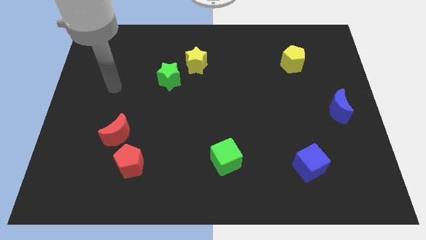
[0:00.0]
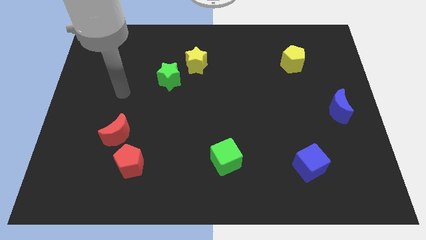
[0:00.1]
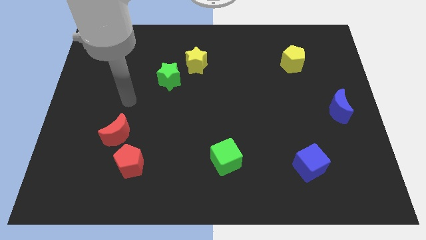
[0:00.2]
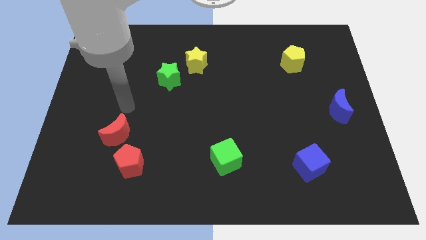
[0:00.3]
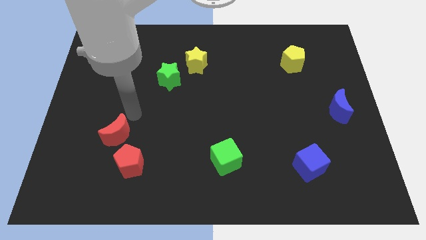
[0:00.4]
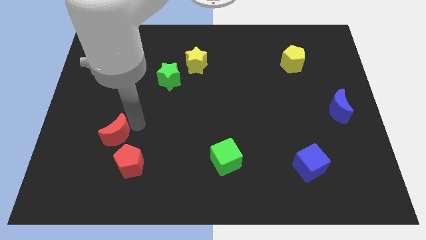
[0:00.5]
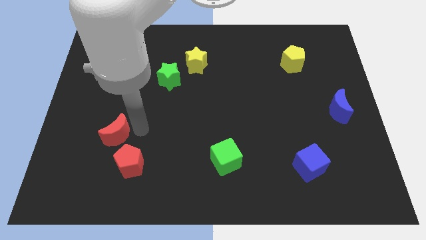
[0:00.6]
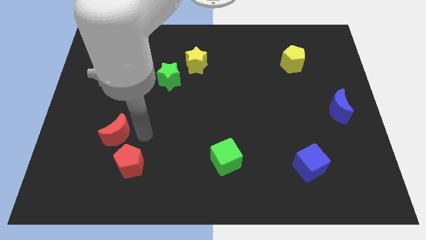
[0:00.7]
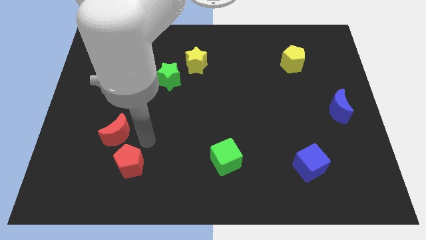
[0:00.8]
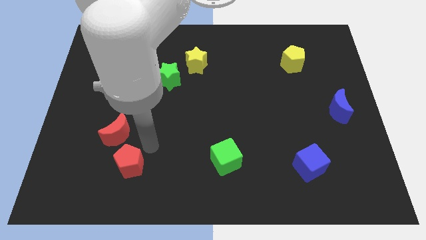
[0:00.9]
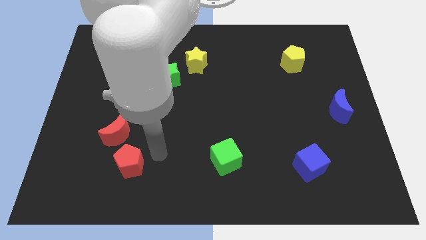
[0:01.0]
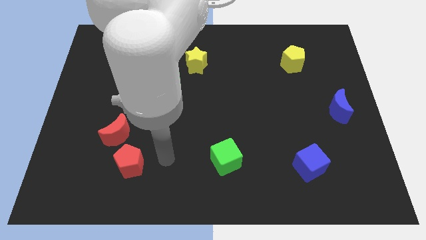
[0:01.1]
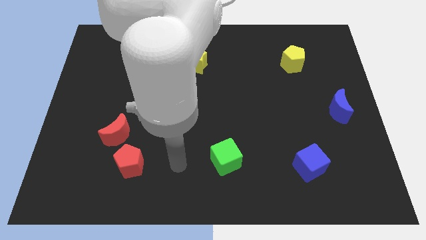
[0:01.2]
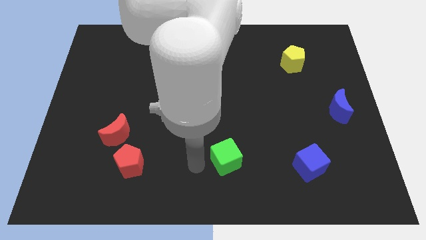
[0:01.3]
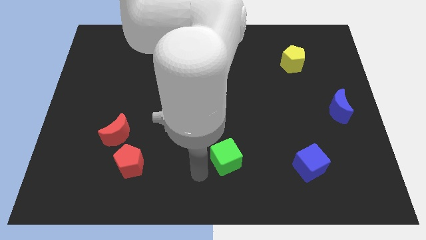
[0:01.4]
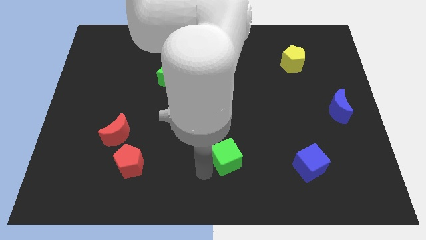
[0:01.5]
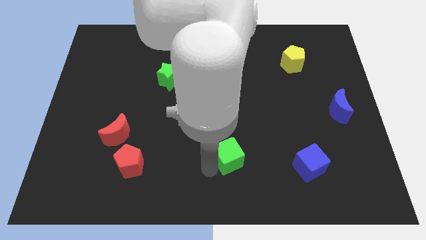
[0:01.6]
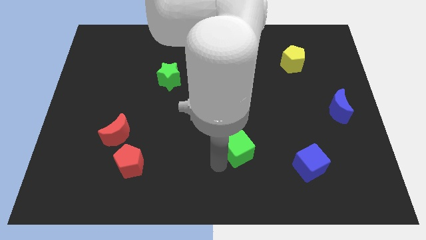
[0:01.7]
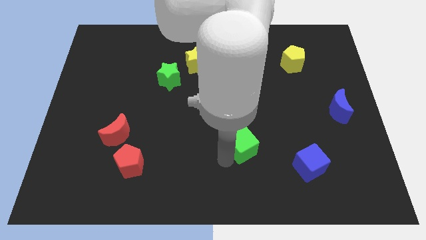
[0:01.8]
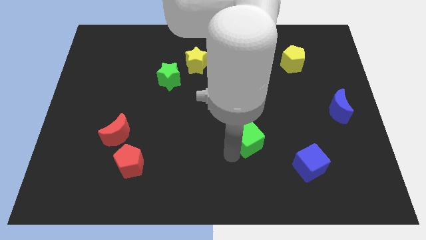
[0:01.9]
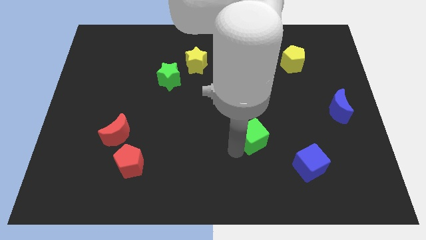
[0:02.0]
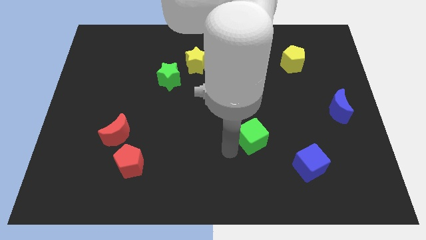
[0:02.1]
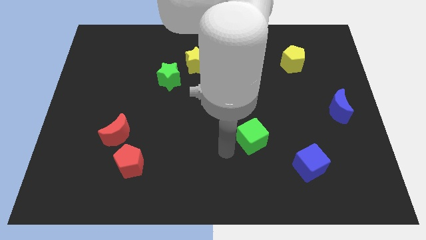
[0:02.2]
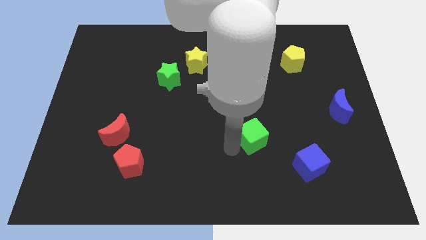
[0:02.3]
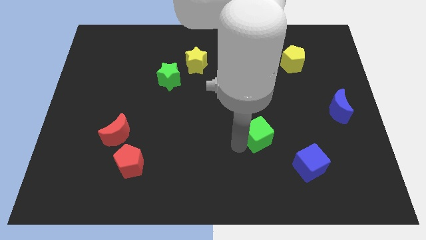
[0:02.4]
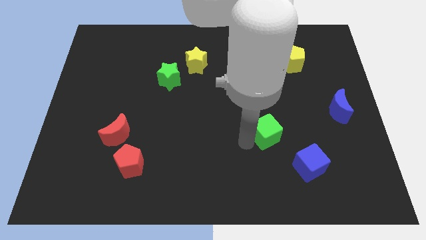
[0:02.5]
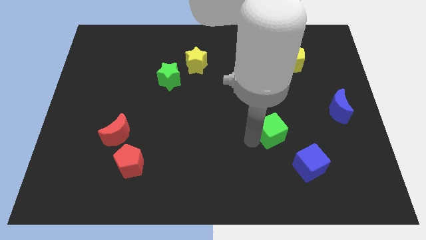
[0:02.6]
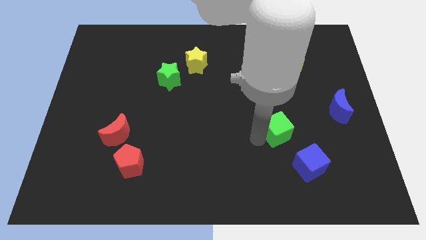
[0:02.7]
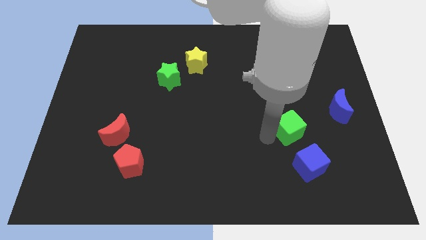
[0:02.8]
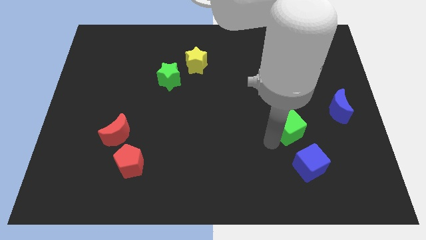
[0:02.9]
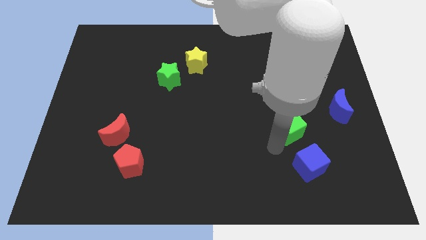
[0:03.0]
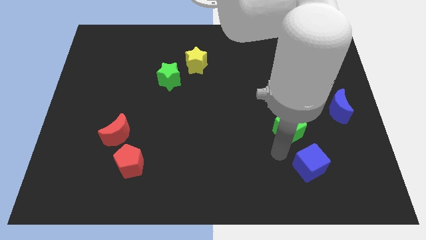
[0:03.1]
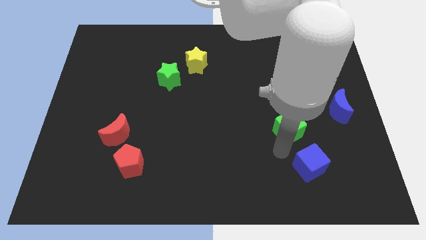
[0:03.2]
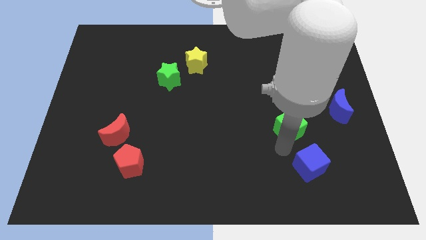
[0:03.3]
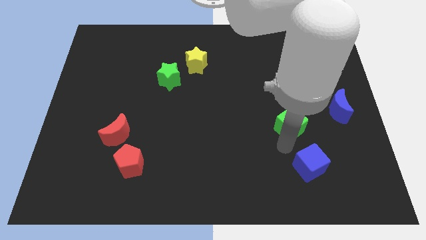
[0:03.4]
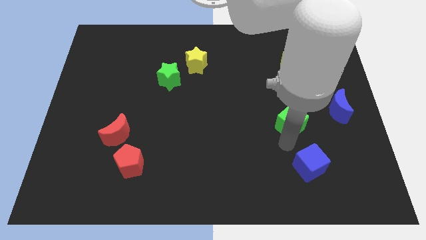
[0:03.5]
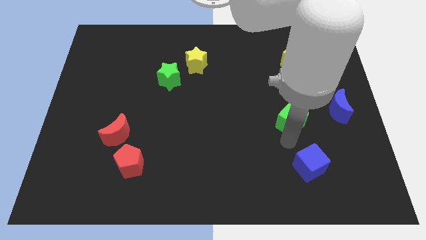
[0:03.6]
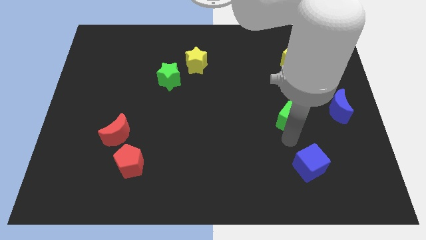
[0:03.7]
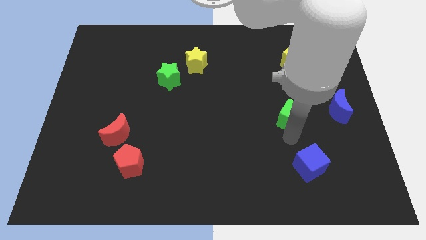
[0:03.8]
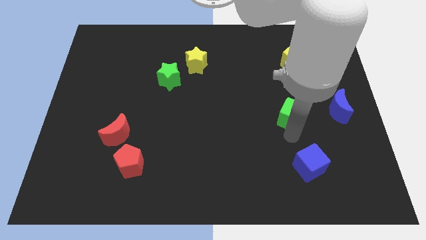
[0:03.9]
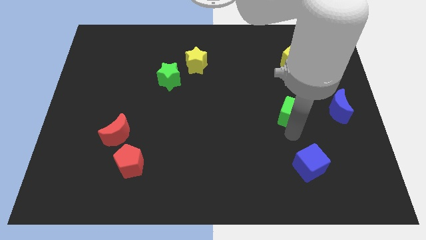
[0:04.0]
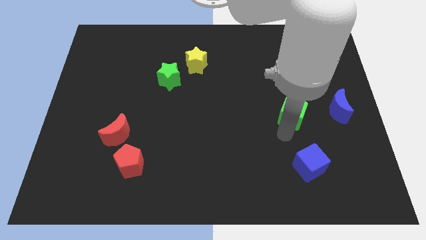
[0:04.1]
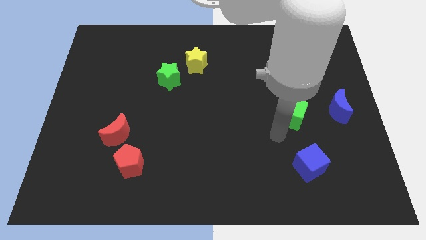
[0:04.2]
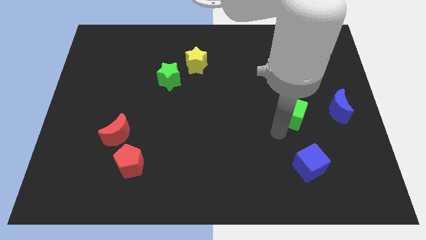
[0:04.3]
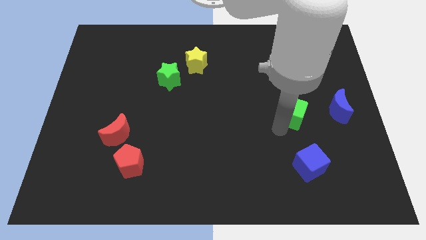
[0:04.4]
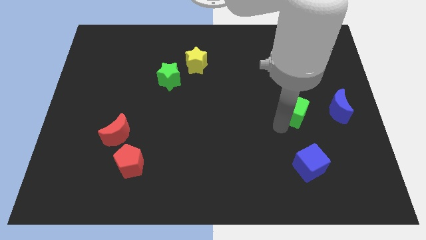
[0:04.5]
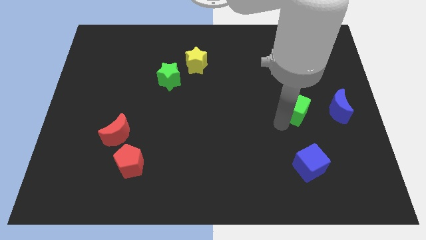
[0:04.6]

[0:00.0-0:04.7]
move the green cube upwards and right diagonally

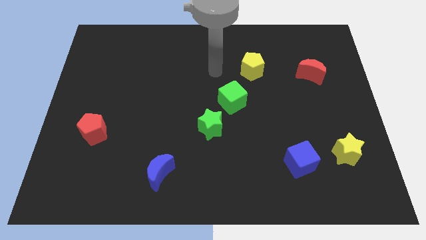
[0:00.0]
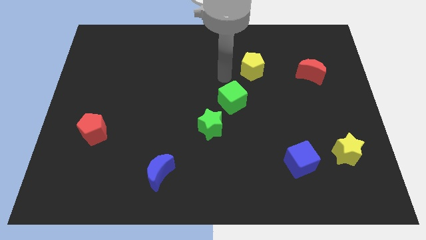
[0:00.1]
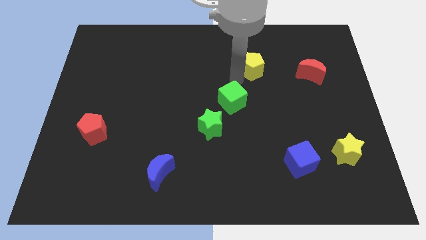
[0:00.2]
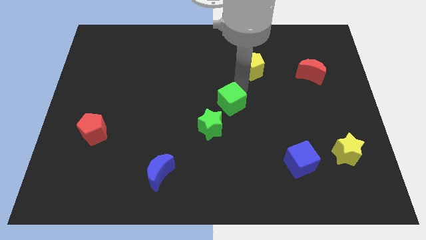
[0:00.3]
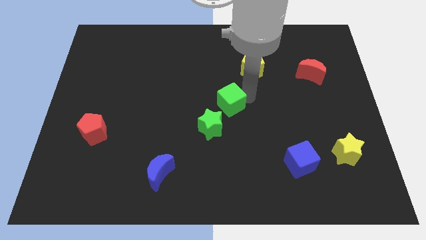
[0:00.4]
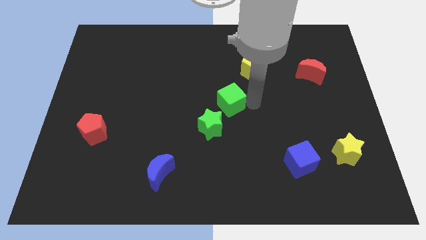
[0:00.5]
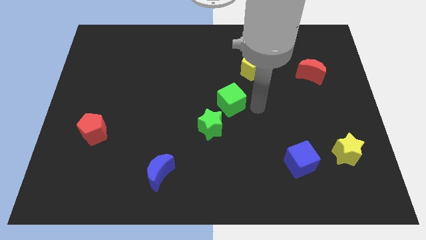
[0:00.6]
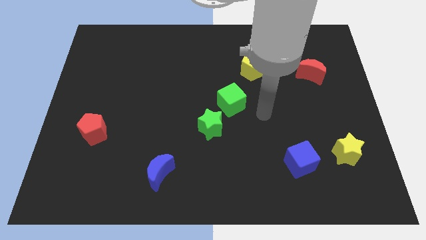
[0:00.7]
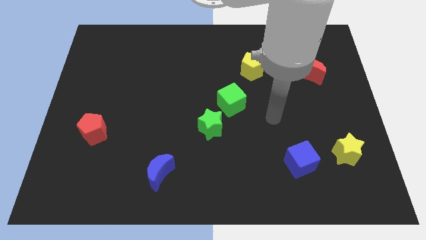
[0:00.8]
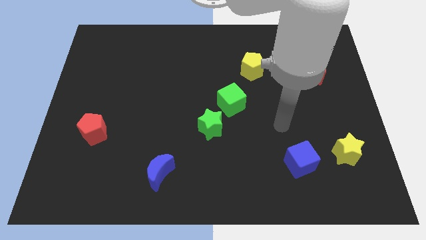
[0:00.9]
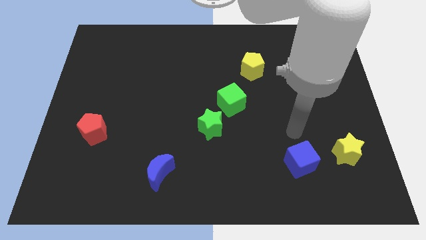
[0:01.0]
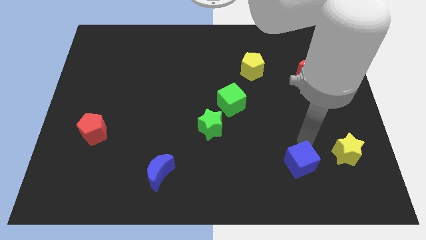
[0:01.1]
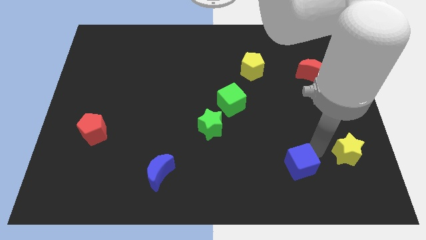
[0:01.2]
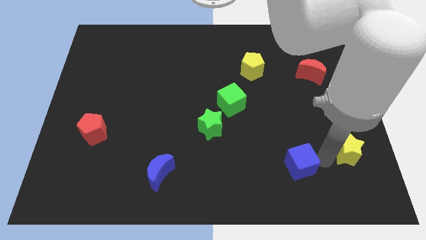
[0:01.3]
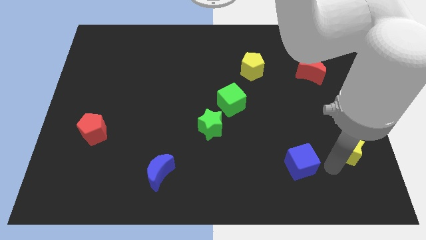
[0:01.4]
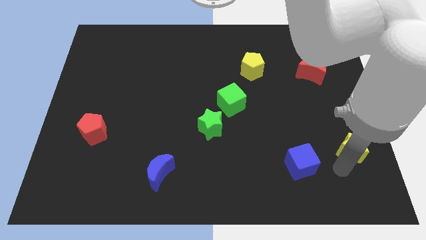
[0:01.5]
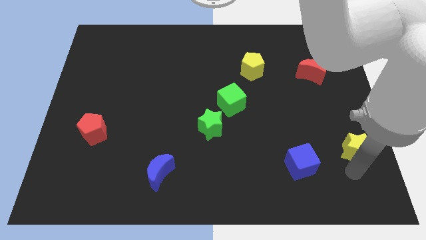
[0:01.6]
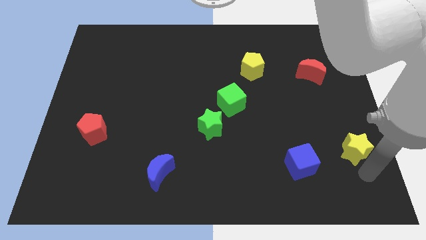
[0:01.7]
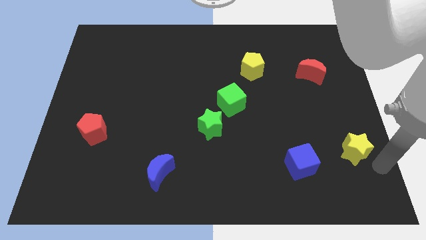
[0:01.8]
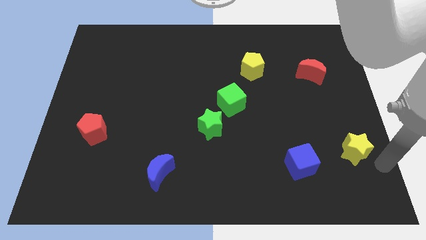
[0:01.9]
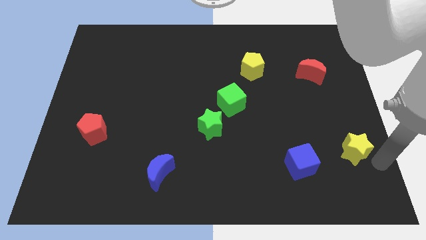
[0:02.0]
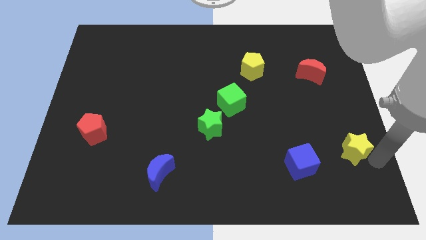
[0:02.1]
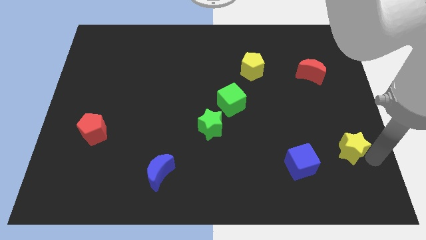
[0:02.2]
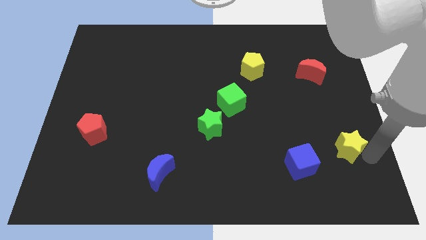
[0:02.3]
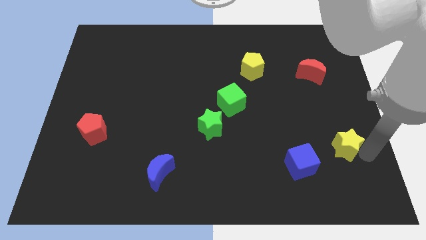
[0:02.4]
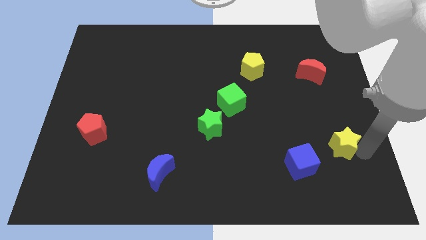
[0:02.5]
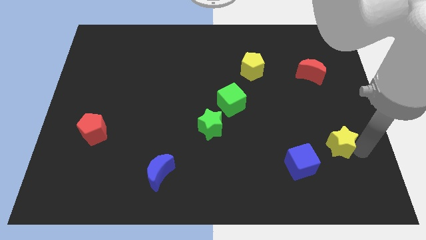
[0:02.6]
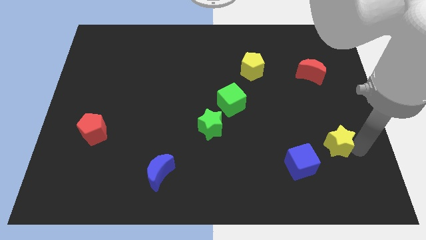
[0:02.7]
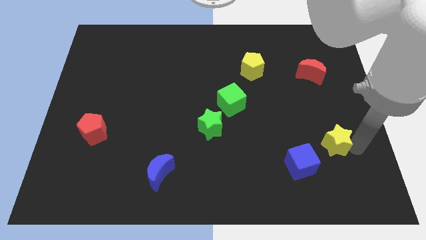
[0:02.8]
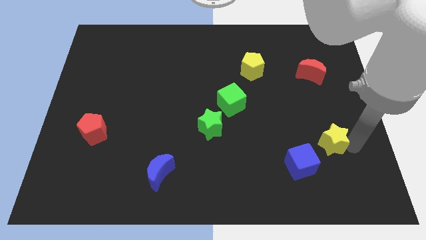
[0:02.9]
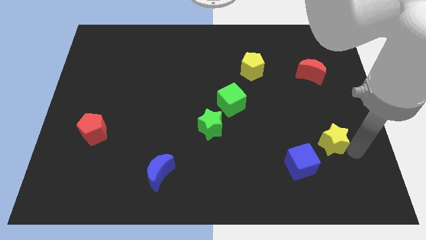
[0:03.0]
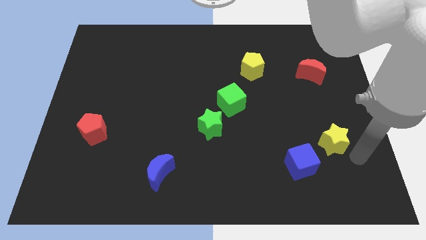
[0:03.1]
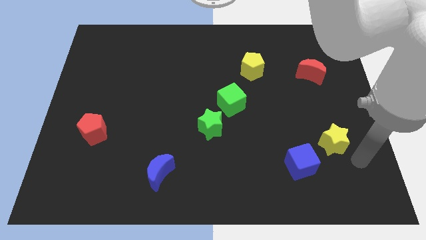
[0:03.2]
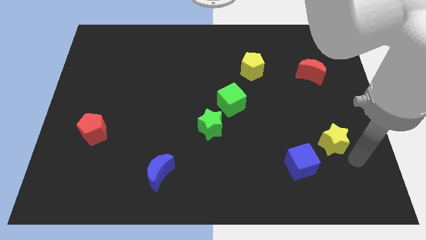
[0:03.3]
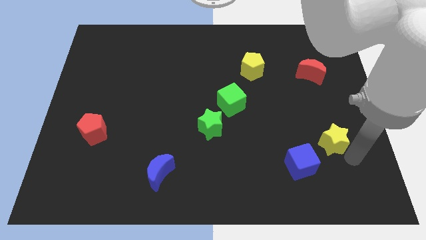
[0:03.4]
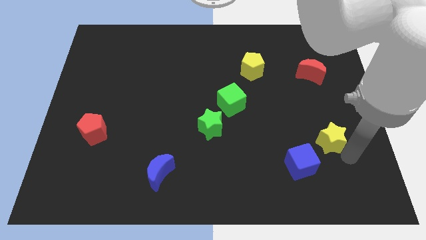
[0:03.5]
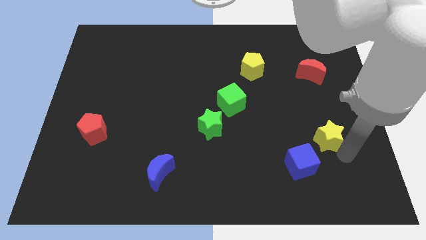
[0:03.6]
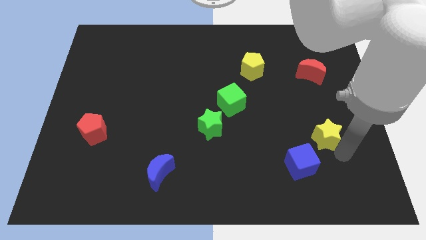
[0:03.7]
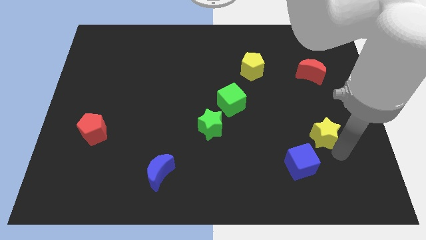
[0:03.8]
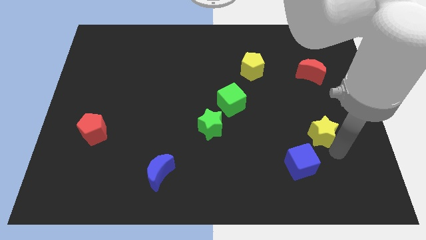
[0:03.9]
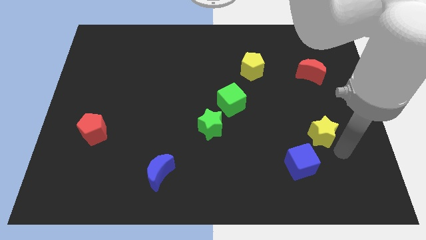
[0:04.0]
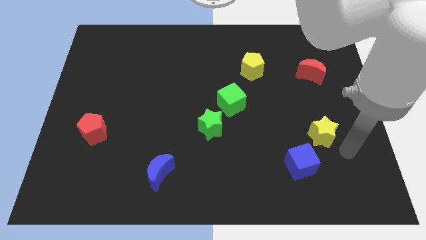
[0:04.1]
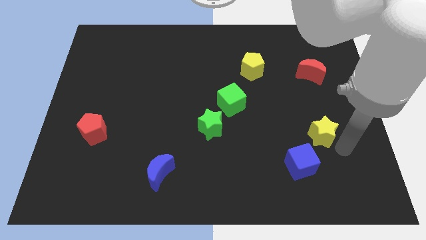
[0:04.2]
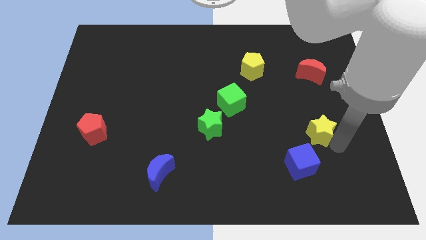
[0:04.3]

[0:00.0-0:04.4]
move the yellow star slightly diagonally up and left
